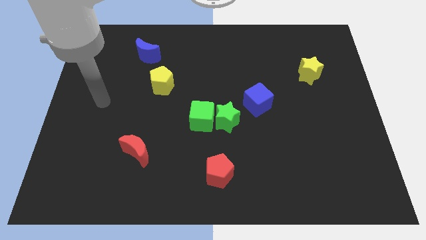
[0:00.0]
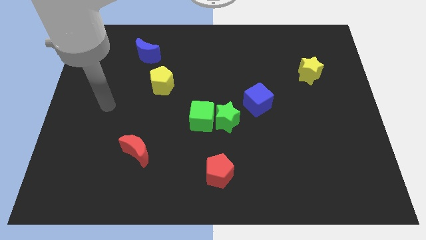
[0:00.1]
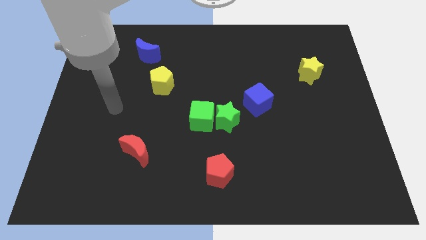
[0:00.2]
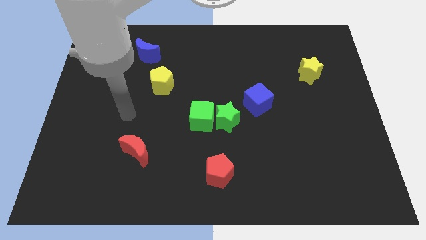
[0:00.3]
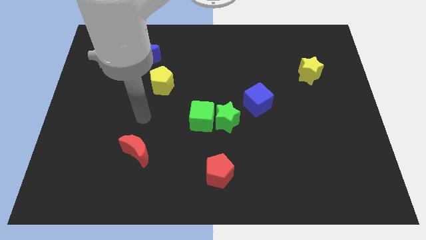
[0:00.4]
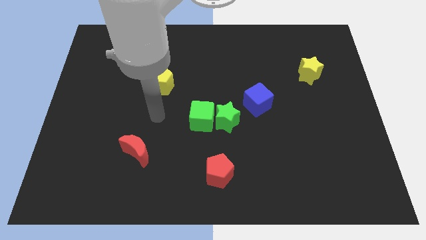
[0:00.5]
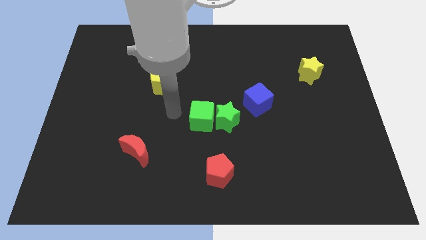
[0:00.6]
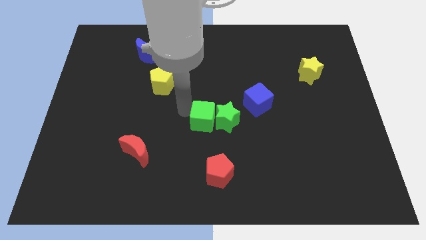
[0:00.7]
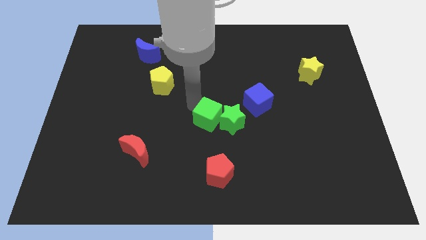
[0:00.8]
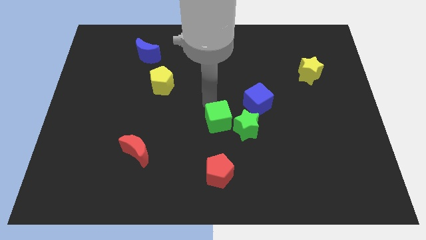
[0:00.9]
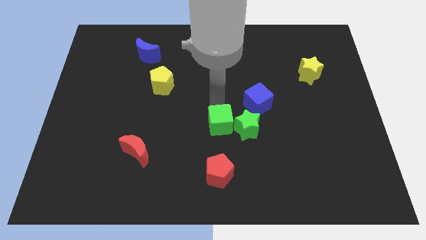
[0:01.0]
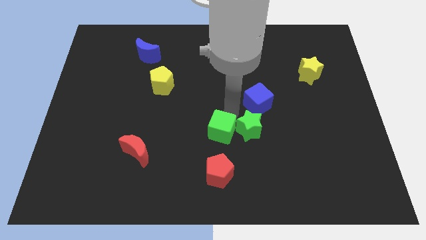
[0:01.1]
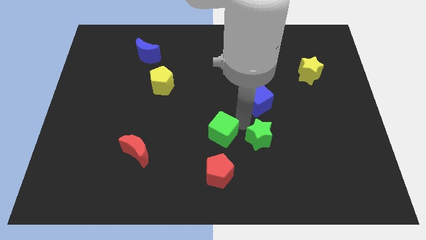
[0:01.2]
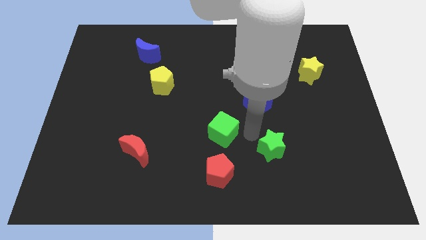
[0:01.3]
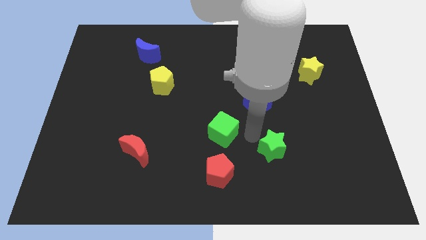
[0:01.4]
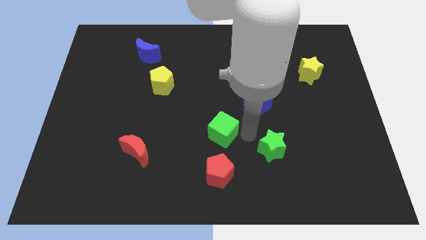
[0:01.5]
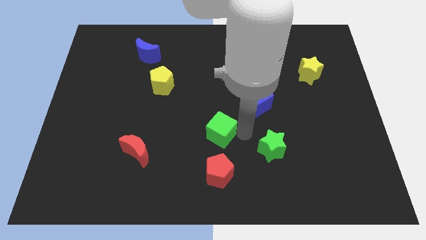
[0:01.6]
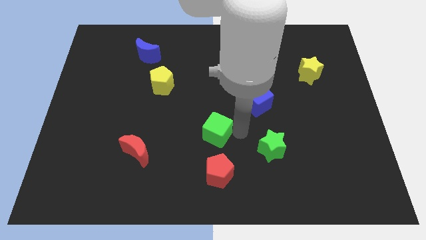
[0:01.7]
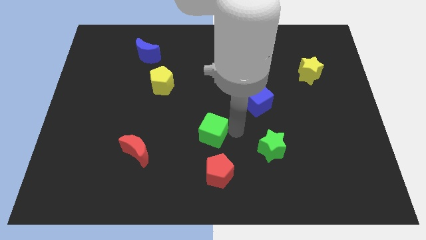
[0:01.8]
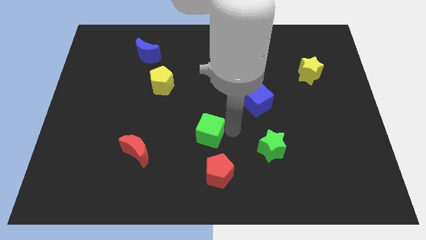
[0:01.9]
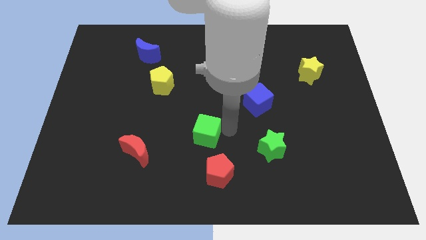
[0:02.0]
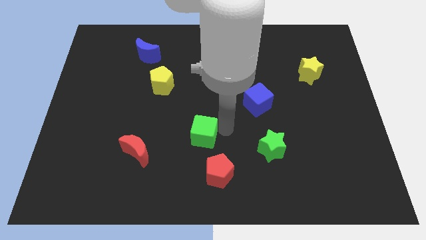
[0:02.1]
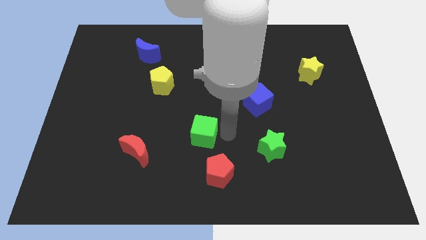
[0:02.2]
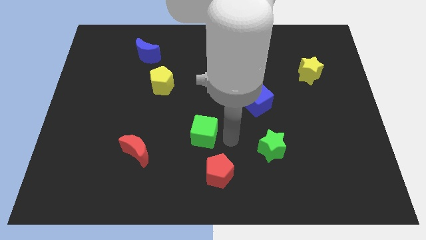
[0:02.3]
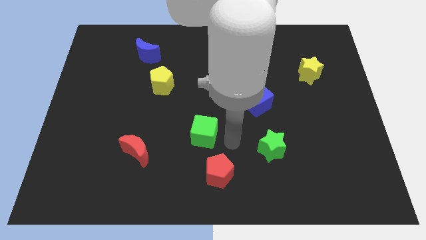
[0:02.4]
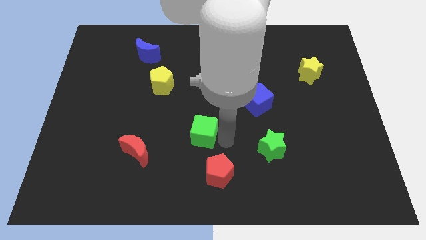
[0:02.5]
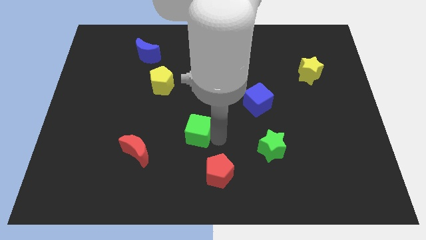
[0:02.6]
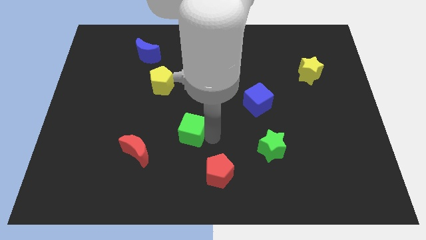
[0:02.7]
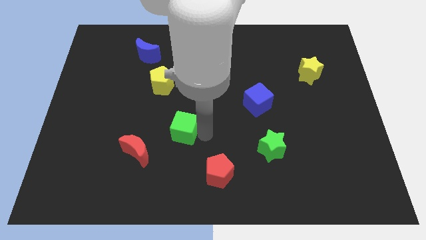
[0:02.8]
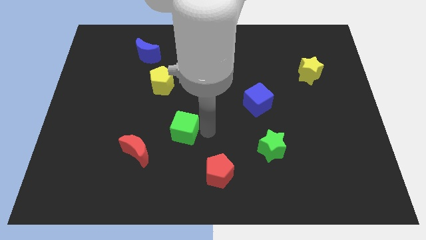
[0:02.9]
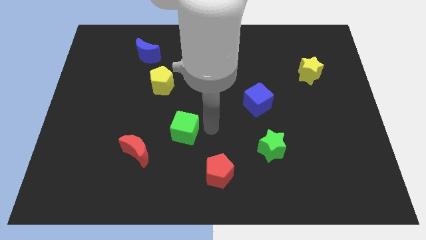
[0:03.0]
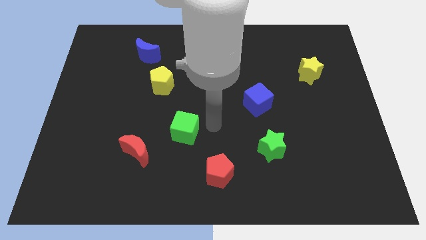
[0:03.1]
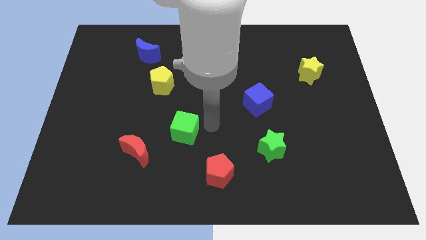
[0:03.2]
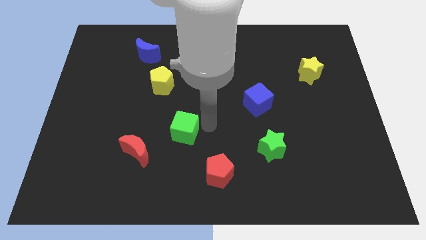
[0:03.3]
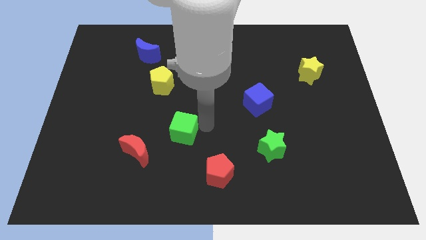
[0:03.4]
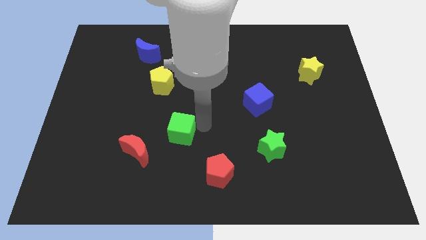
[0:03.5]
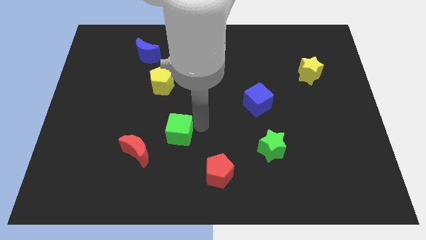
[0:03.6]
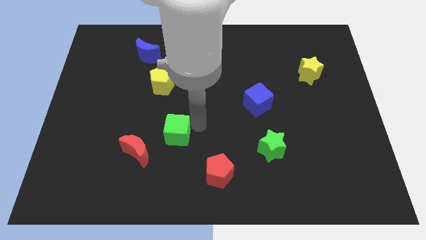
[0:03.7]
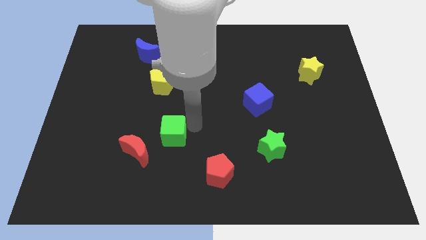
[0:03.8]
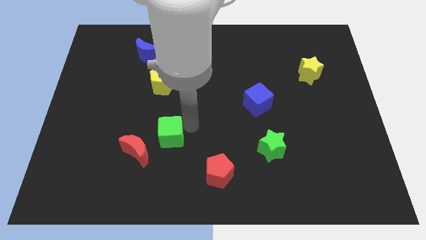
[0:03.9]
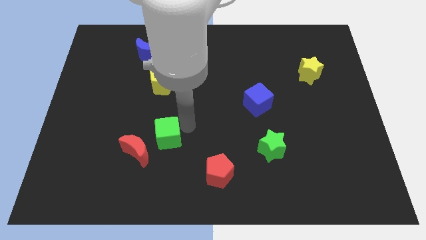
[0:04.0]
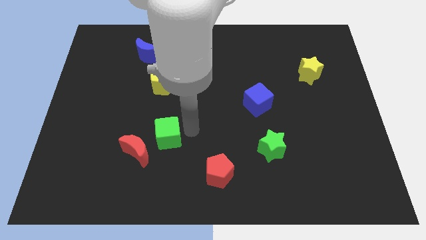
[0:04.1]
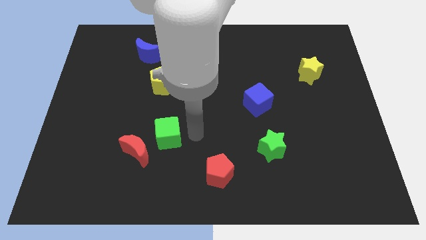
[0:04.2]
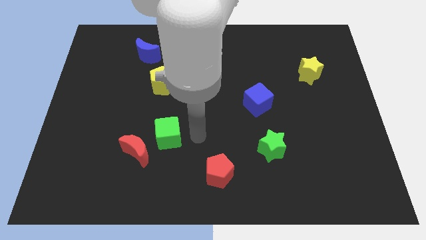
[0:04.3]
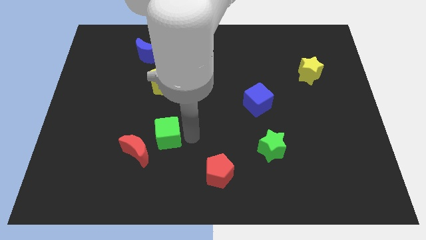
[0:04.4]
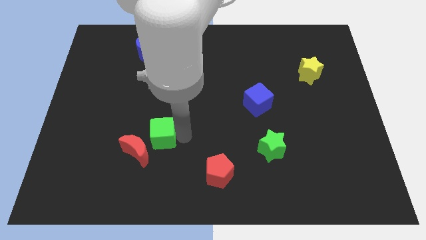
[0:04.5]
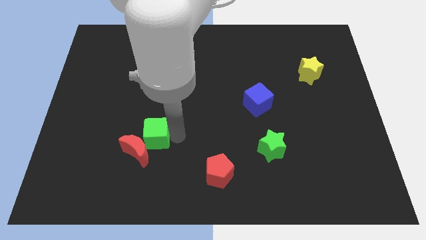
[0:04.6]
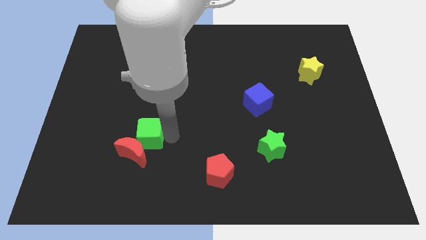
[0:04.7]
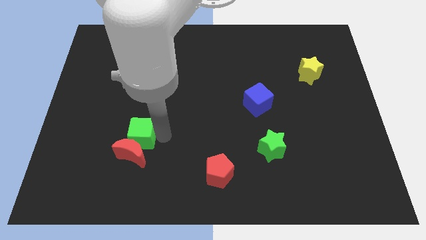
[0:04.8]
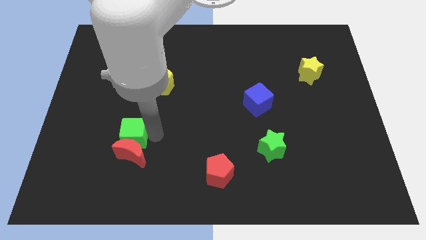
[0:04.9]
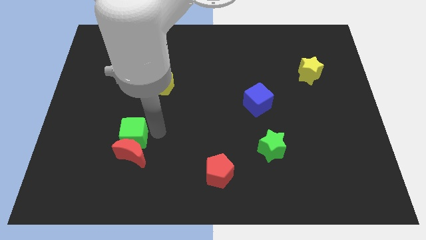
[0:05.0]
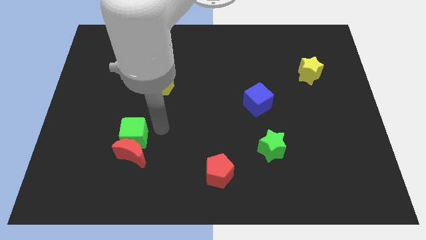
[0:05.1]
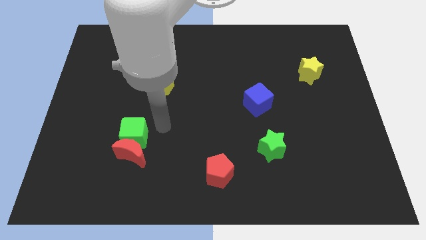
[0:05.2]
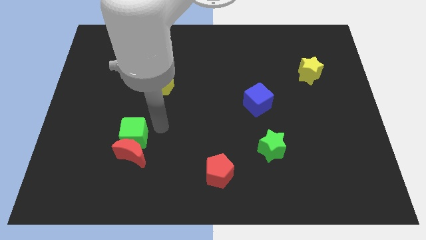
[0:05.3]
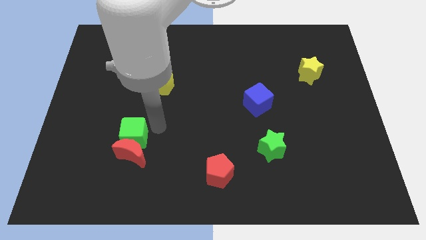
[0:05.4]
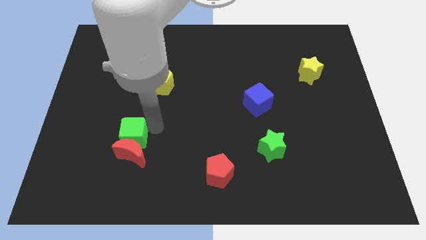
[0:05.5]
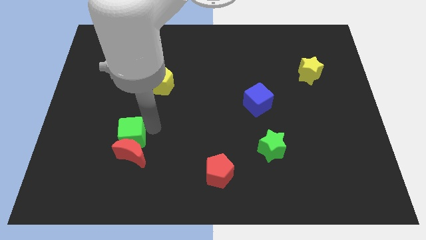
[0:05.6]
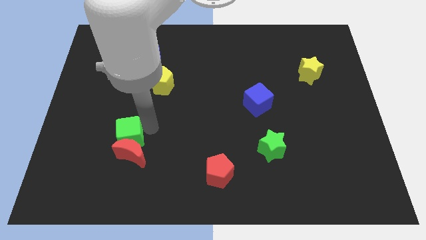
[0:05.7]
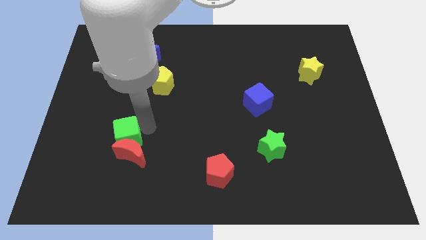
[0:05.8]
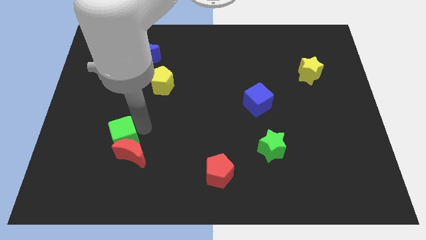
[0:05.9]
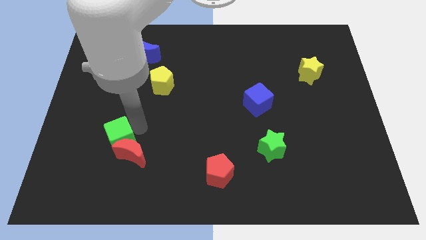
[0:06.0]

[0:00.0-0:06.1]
push the green cube just left of the red moon

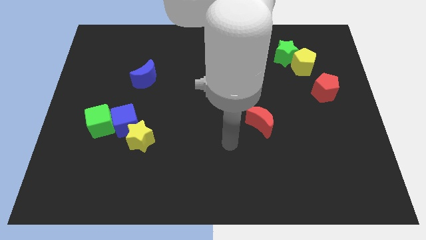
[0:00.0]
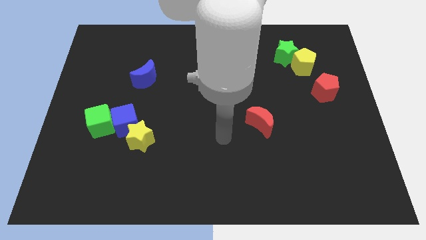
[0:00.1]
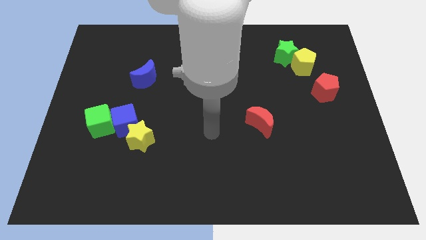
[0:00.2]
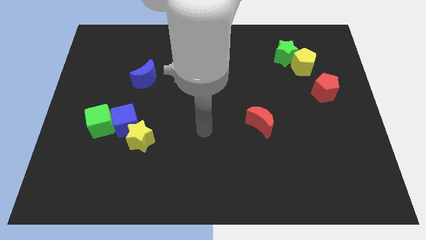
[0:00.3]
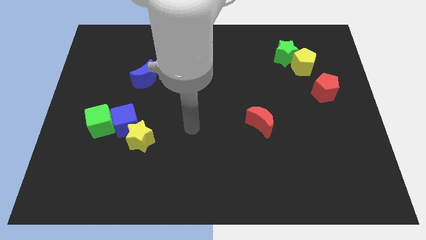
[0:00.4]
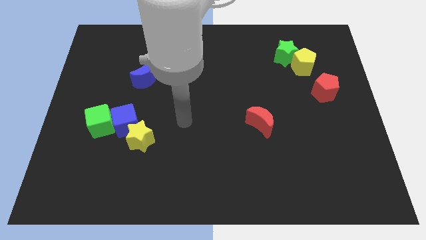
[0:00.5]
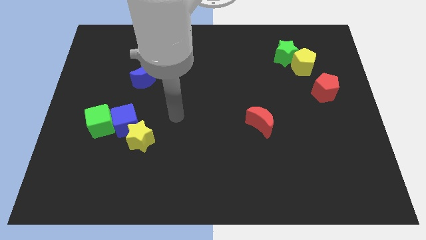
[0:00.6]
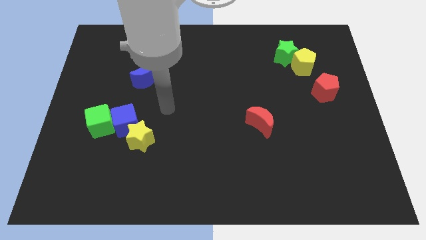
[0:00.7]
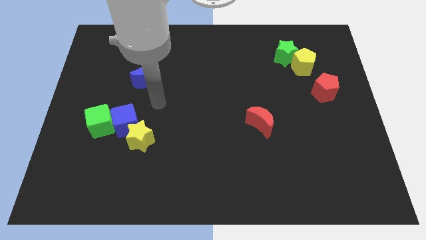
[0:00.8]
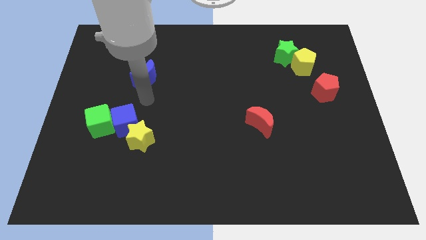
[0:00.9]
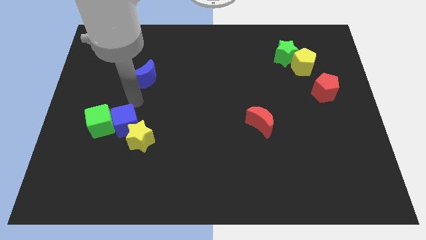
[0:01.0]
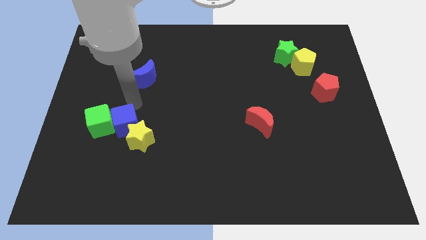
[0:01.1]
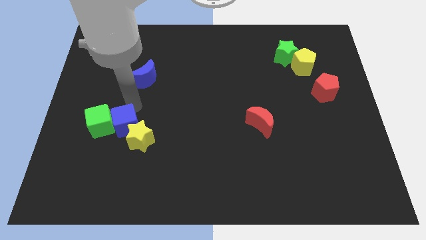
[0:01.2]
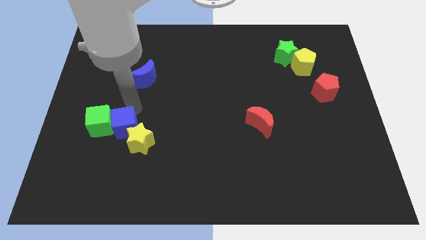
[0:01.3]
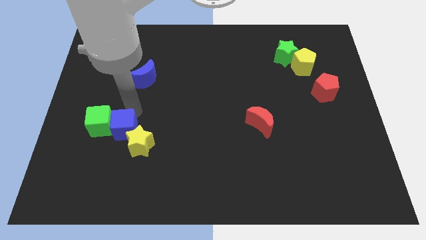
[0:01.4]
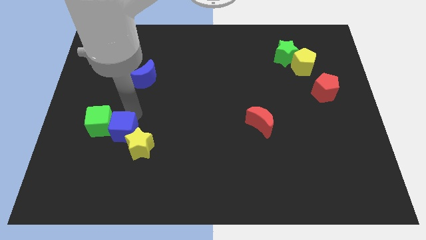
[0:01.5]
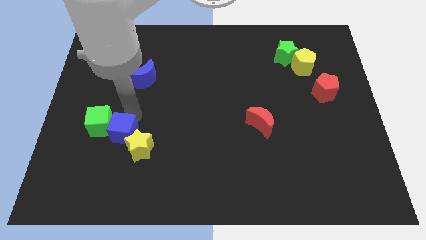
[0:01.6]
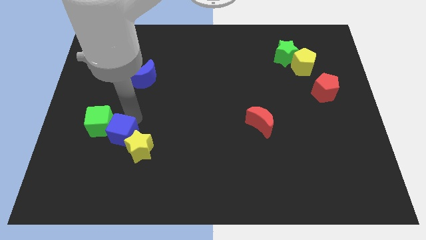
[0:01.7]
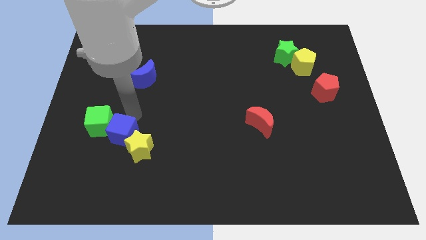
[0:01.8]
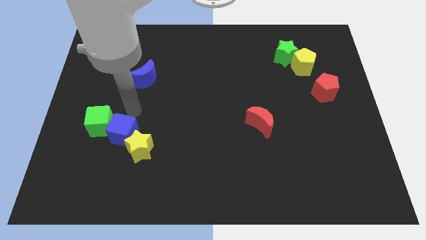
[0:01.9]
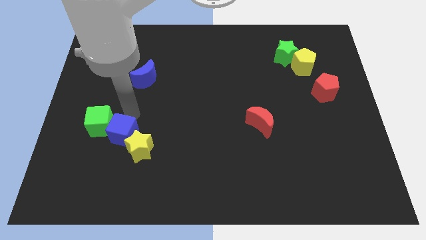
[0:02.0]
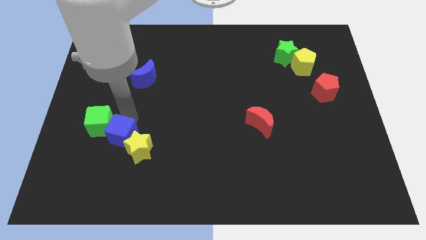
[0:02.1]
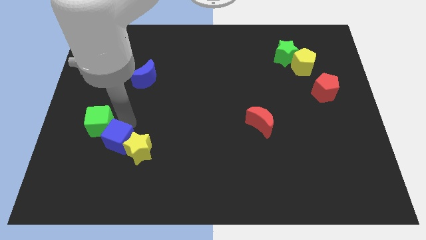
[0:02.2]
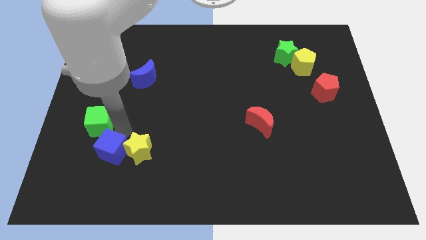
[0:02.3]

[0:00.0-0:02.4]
move the blue cube diagonally down and to the left of the yellow star
